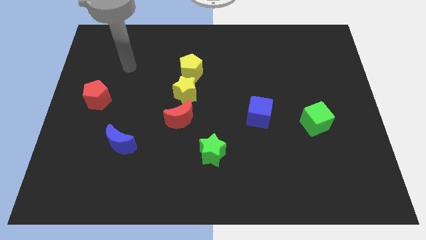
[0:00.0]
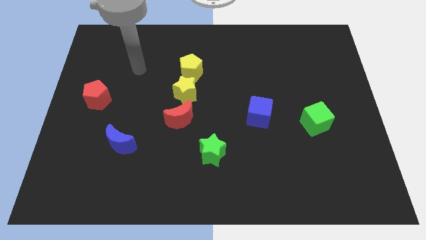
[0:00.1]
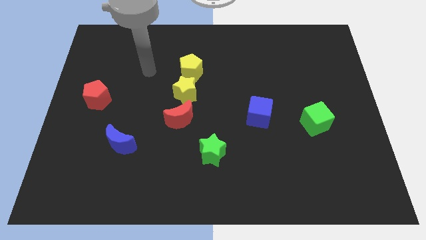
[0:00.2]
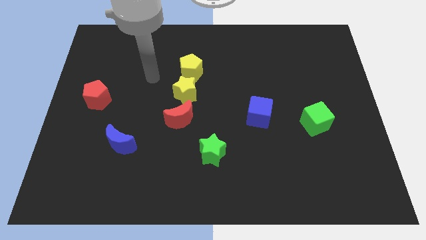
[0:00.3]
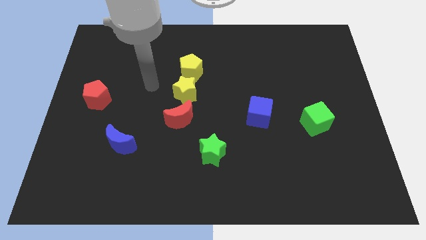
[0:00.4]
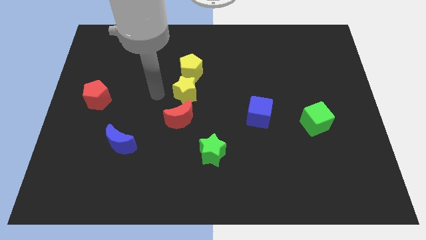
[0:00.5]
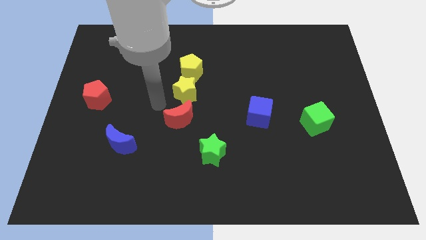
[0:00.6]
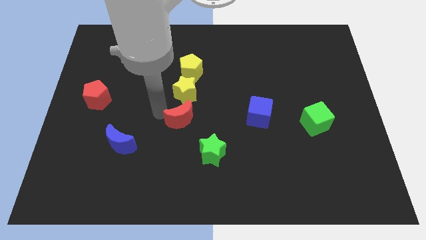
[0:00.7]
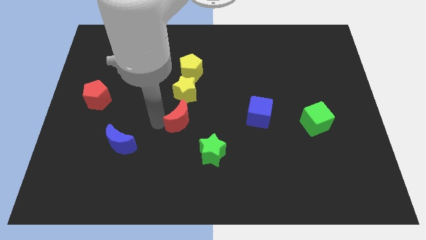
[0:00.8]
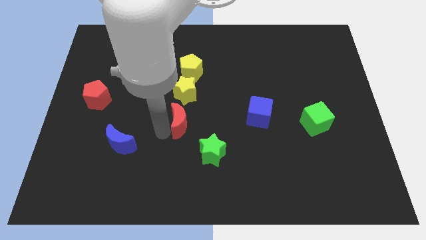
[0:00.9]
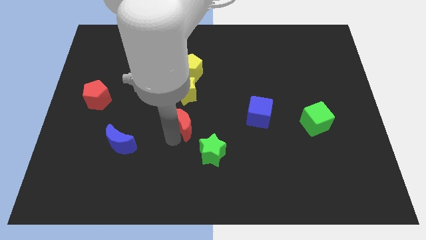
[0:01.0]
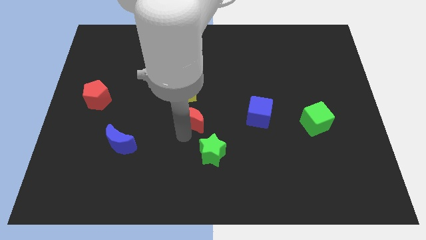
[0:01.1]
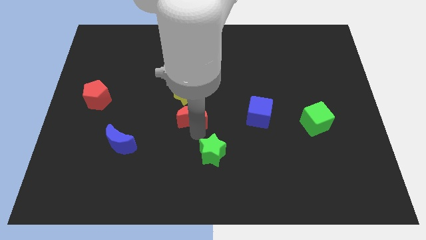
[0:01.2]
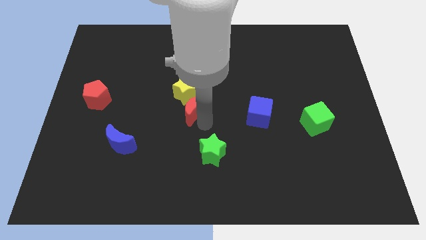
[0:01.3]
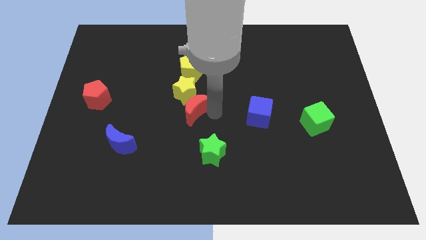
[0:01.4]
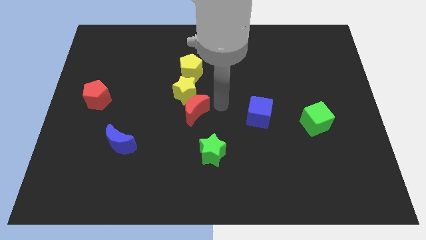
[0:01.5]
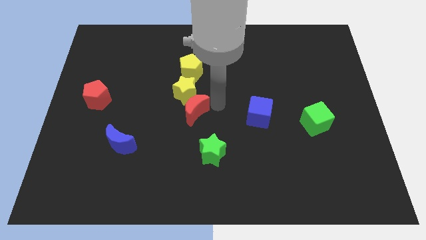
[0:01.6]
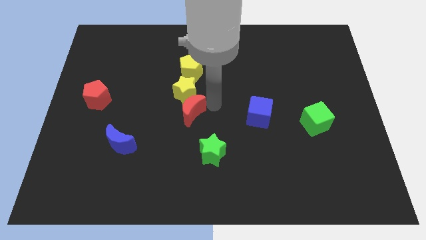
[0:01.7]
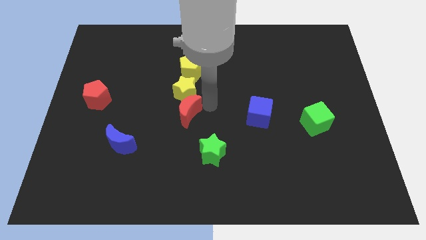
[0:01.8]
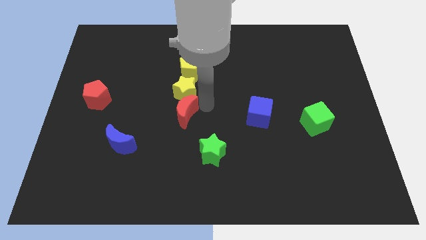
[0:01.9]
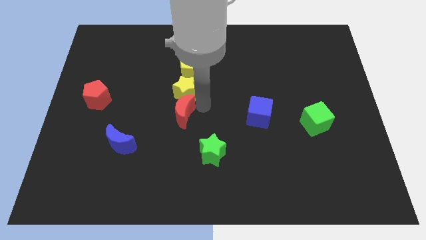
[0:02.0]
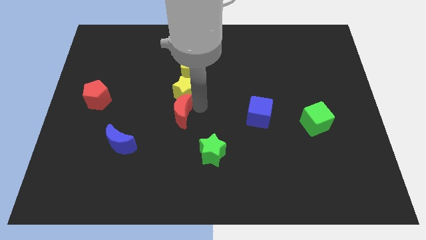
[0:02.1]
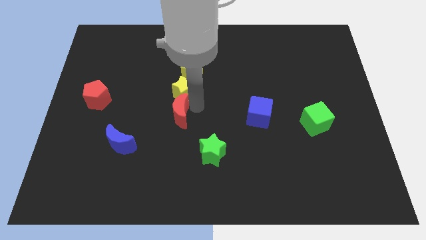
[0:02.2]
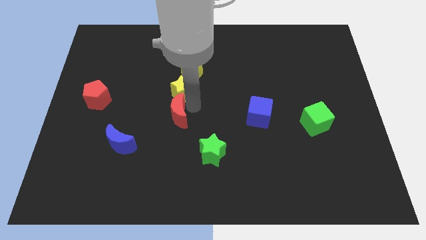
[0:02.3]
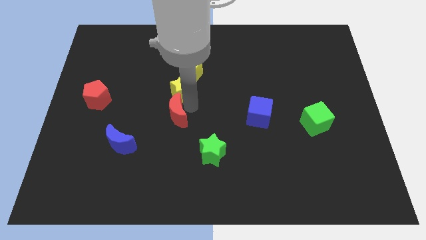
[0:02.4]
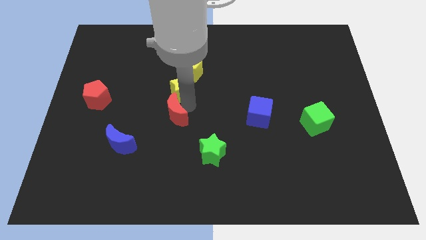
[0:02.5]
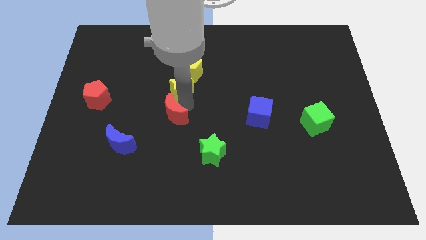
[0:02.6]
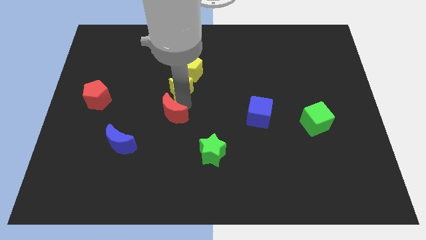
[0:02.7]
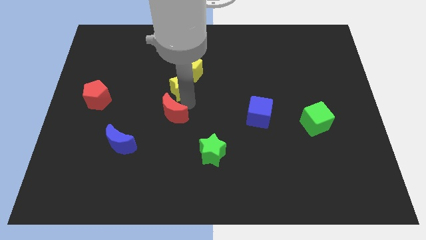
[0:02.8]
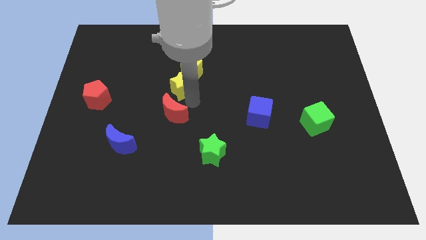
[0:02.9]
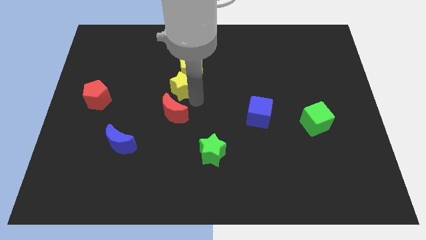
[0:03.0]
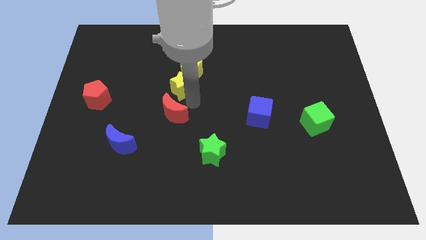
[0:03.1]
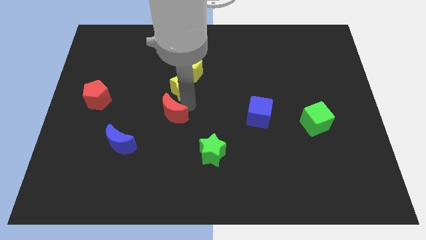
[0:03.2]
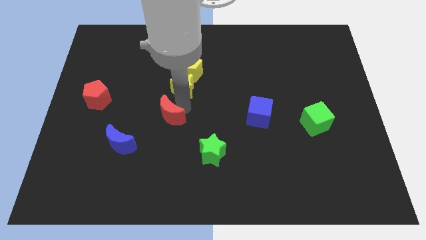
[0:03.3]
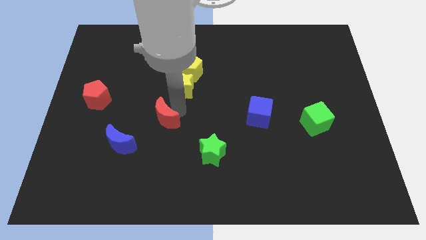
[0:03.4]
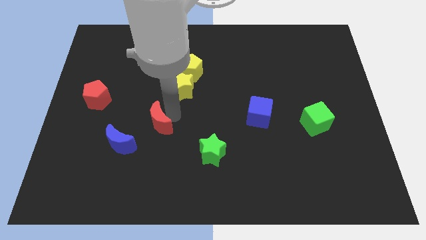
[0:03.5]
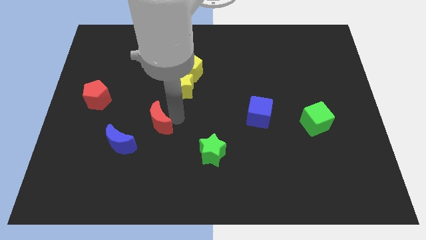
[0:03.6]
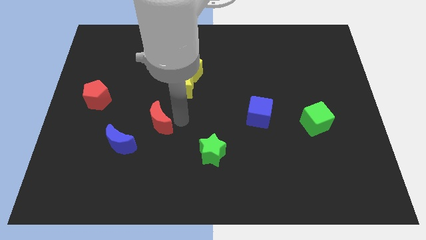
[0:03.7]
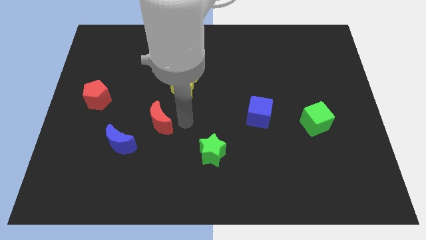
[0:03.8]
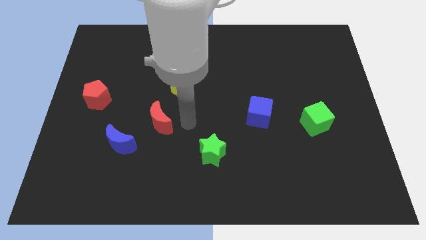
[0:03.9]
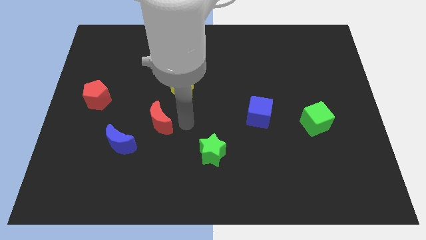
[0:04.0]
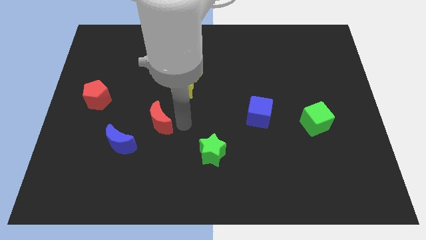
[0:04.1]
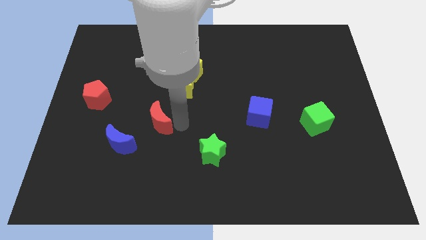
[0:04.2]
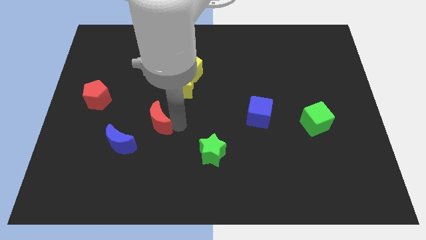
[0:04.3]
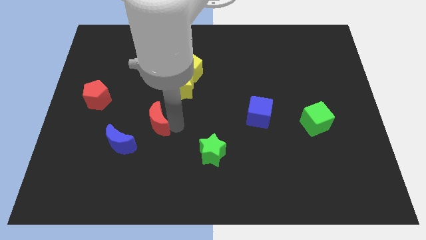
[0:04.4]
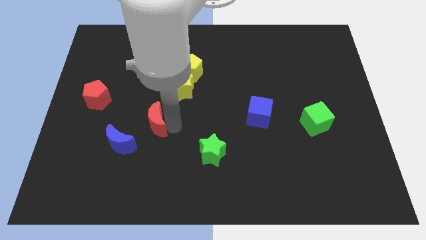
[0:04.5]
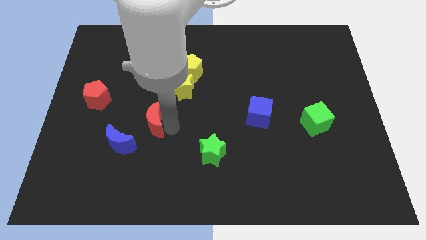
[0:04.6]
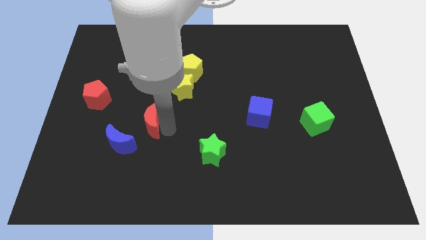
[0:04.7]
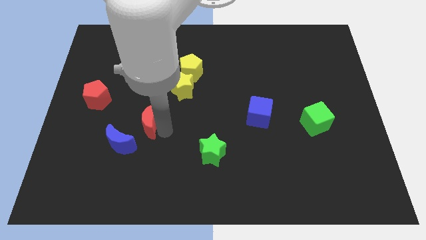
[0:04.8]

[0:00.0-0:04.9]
slightly slide the red moon left

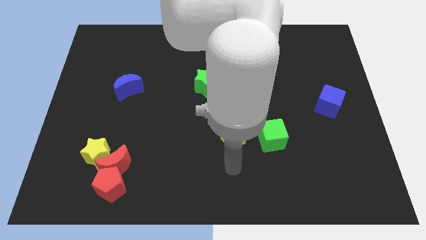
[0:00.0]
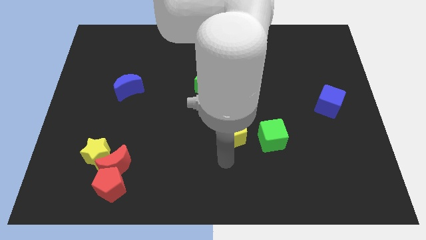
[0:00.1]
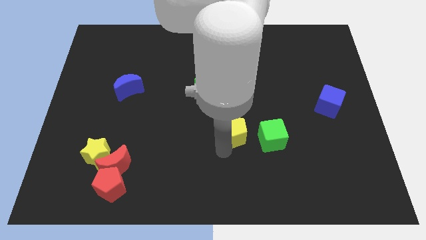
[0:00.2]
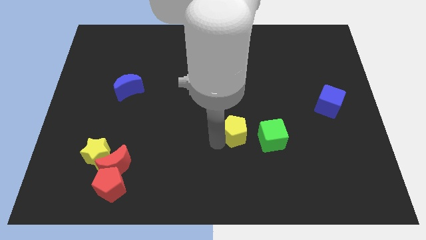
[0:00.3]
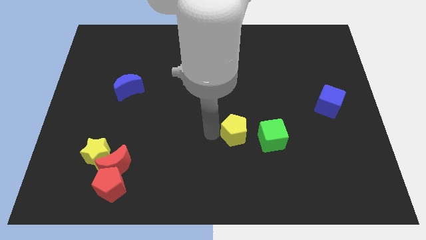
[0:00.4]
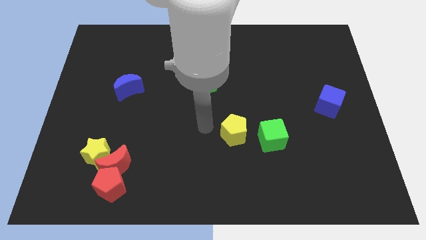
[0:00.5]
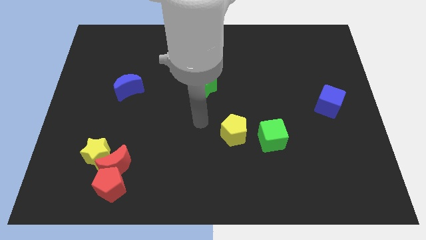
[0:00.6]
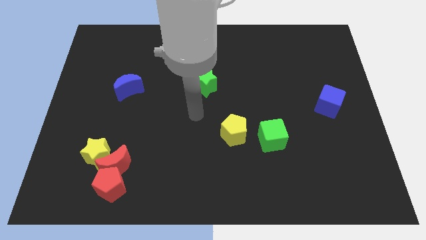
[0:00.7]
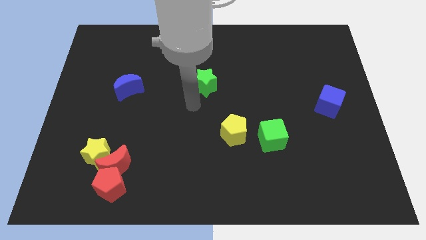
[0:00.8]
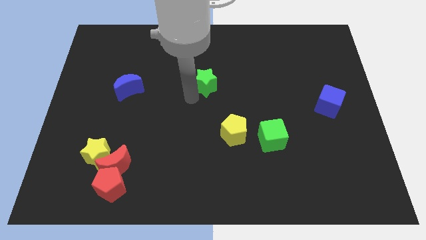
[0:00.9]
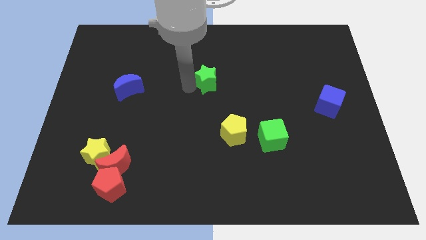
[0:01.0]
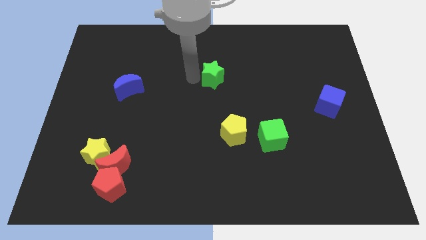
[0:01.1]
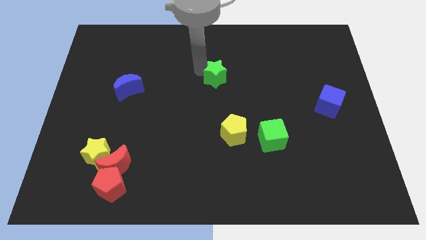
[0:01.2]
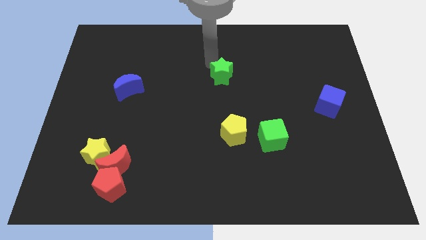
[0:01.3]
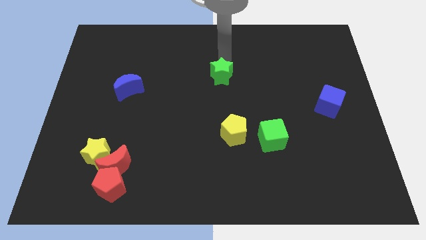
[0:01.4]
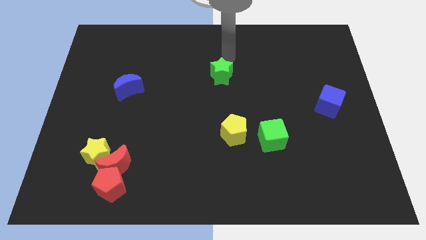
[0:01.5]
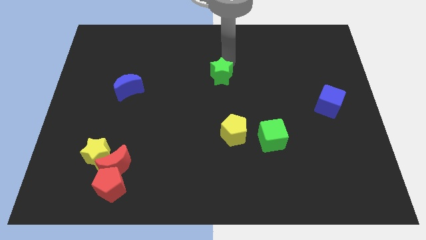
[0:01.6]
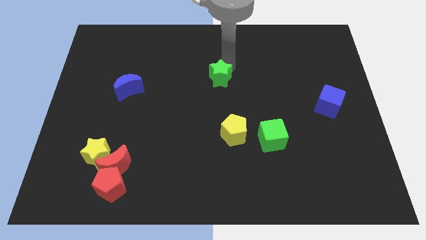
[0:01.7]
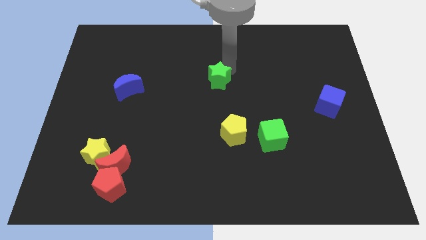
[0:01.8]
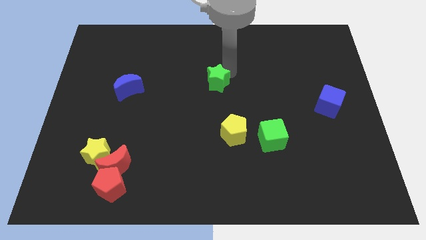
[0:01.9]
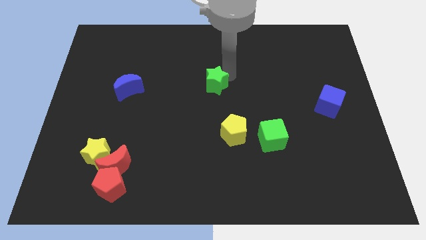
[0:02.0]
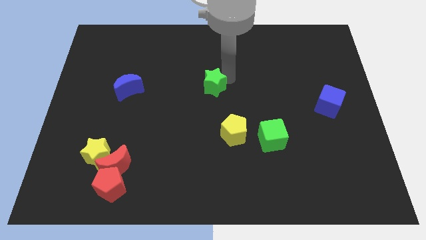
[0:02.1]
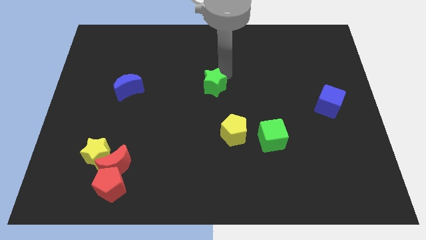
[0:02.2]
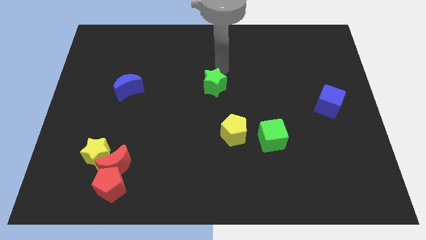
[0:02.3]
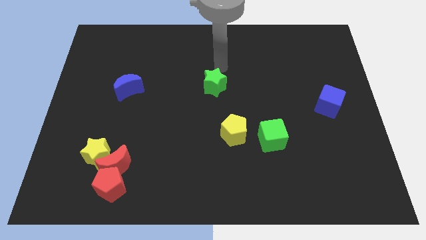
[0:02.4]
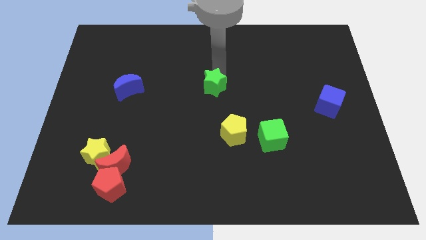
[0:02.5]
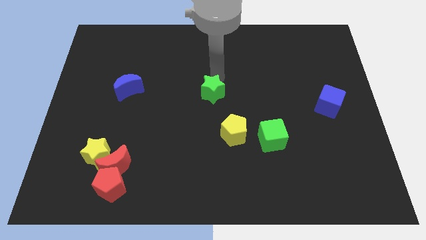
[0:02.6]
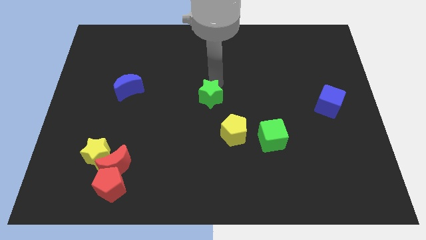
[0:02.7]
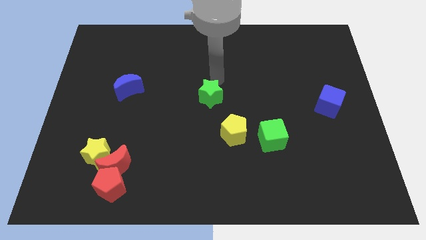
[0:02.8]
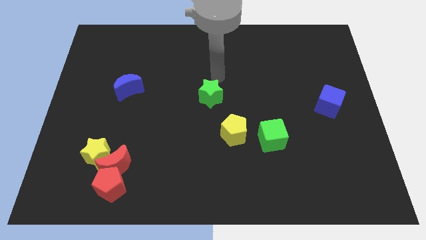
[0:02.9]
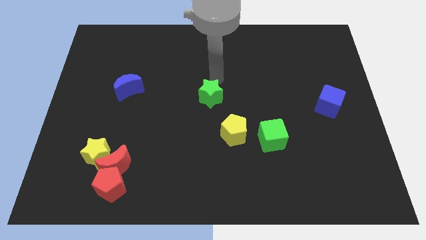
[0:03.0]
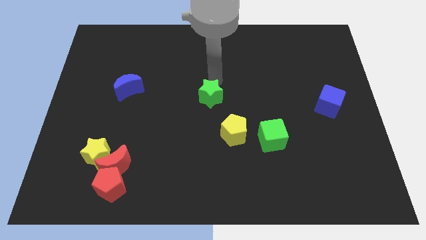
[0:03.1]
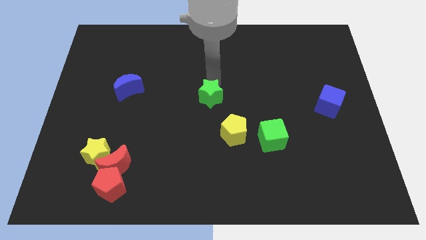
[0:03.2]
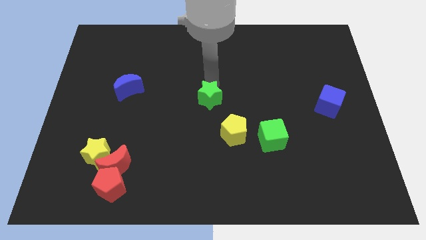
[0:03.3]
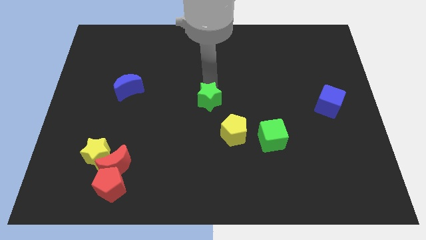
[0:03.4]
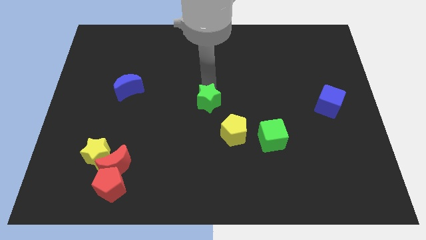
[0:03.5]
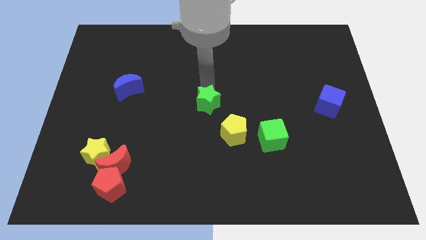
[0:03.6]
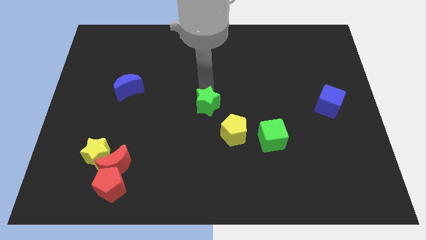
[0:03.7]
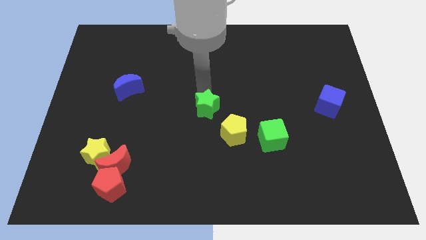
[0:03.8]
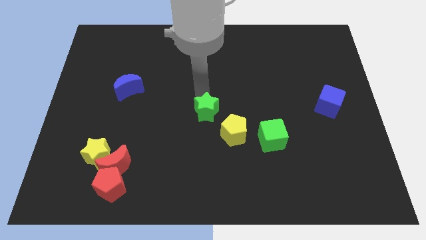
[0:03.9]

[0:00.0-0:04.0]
slide the green star downwards somewhat
